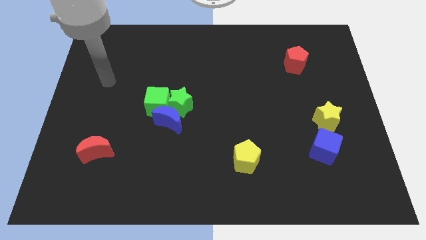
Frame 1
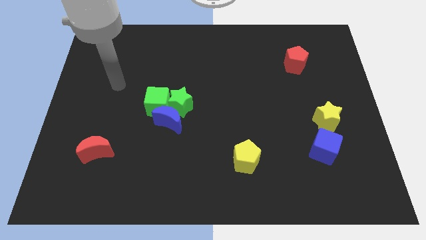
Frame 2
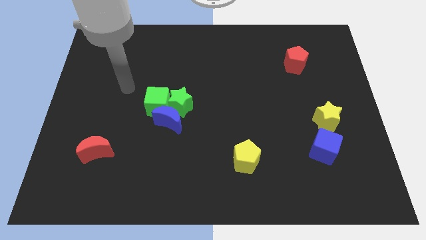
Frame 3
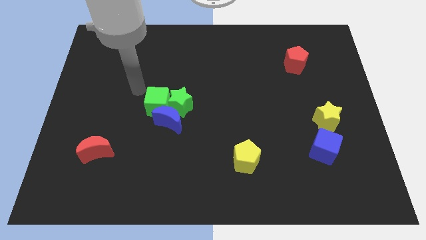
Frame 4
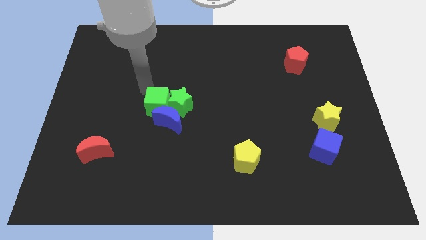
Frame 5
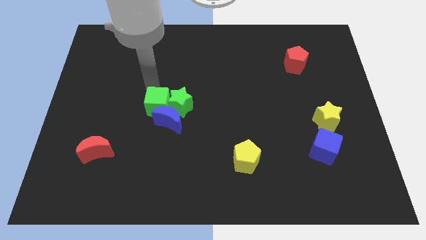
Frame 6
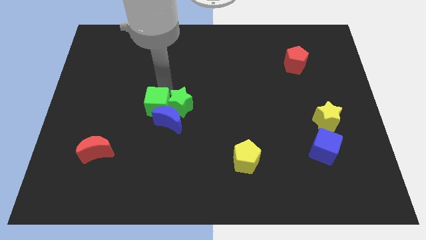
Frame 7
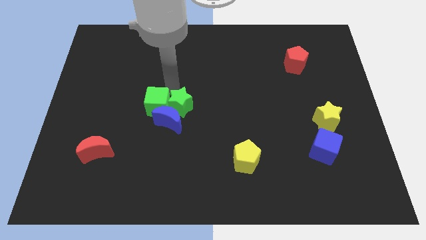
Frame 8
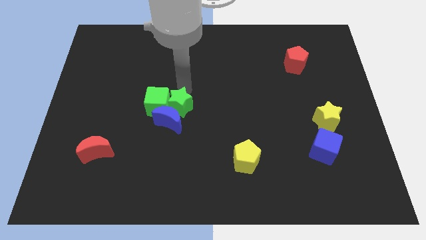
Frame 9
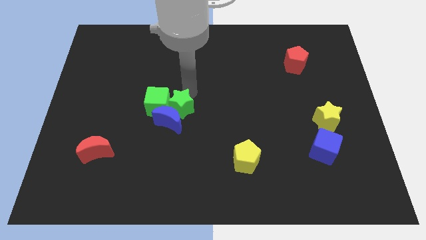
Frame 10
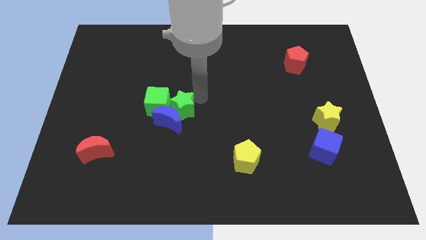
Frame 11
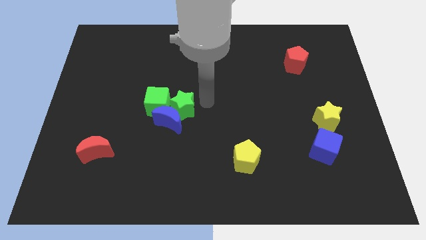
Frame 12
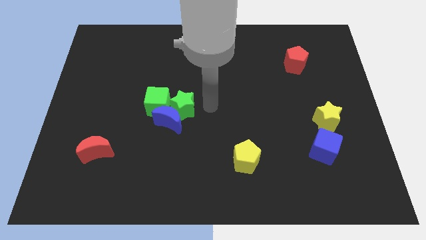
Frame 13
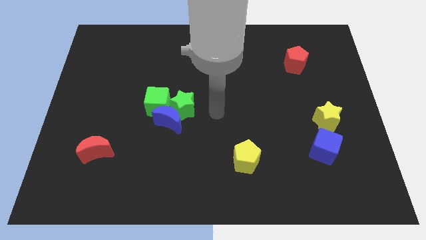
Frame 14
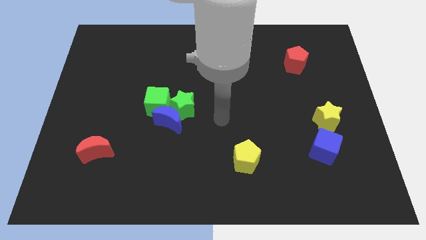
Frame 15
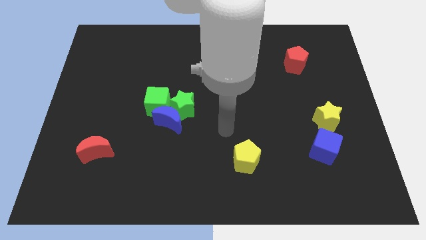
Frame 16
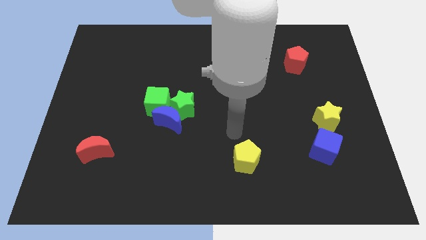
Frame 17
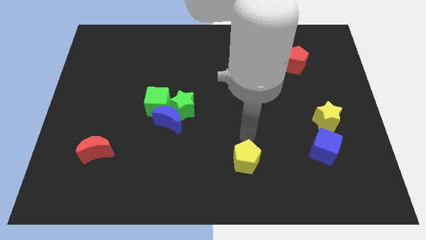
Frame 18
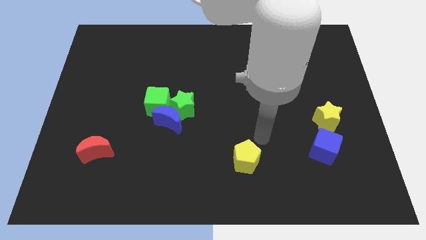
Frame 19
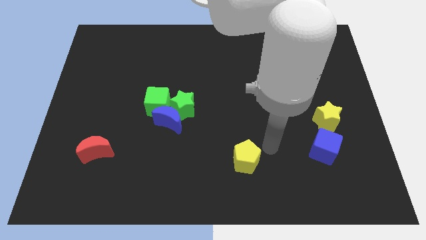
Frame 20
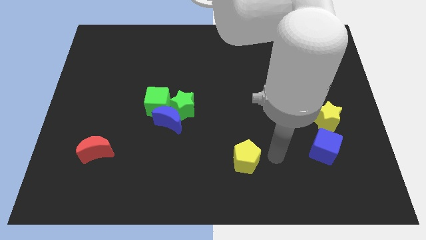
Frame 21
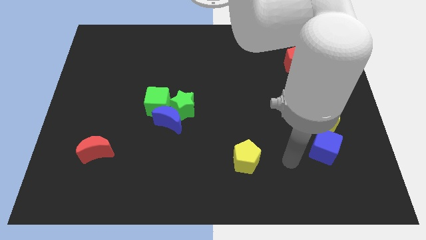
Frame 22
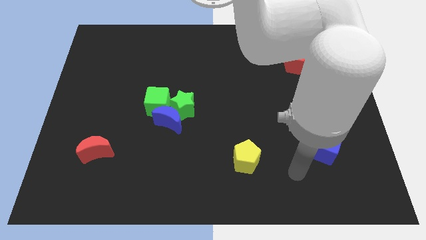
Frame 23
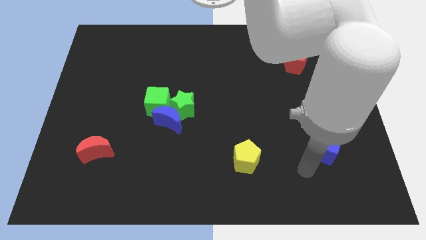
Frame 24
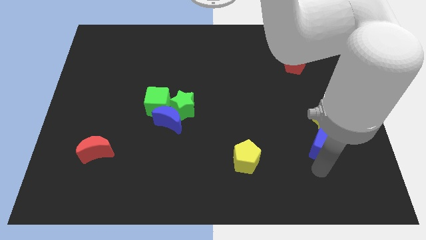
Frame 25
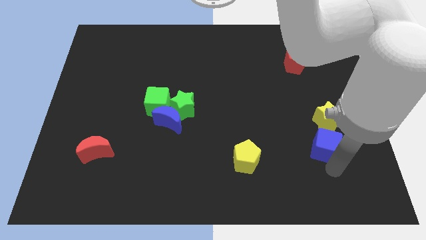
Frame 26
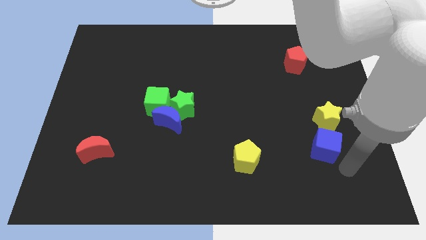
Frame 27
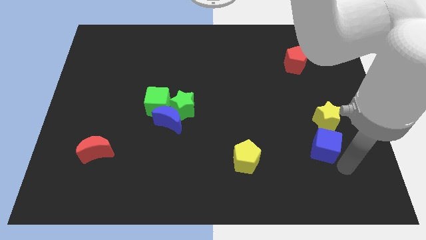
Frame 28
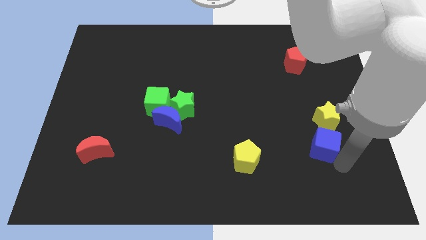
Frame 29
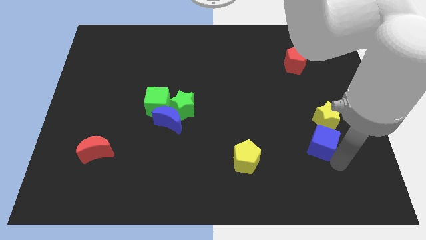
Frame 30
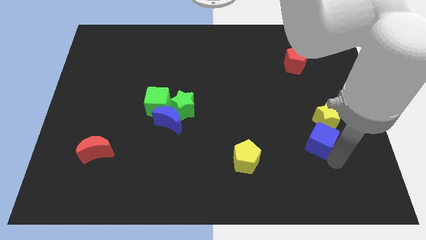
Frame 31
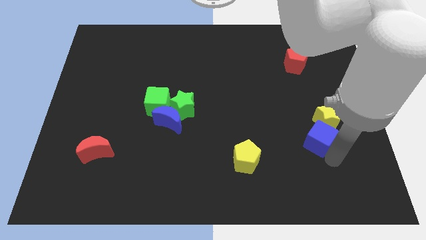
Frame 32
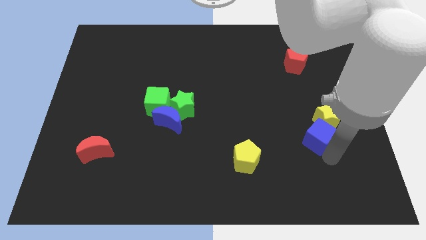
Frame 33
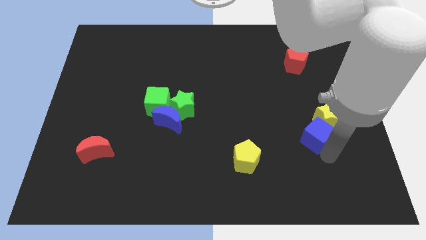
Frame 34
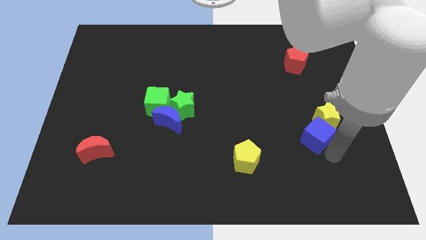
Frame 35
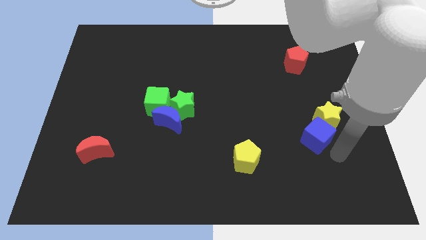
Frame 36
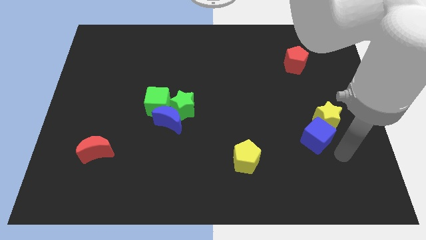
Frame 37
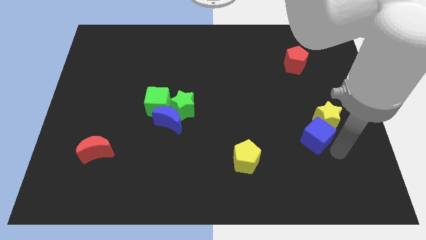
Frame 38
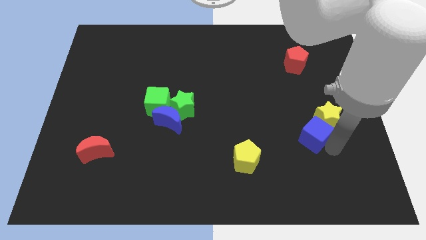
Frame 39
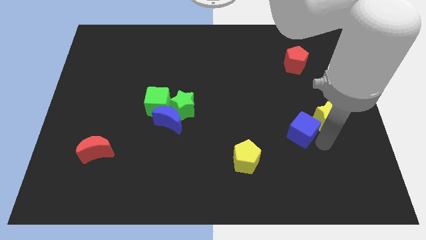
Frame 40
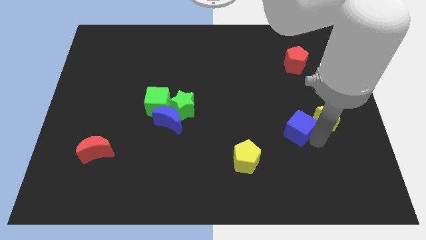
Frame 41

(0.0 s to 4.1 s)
slide the blue cube up and then left a little

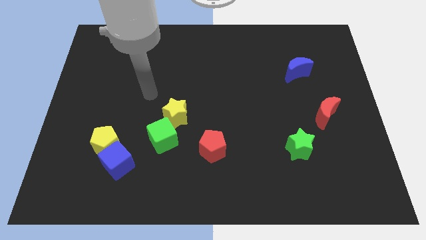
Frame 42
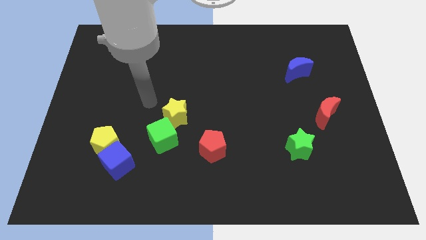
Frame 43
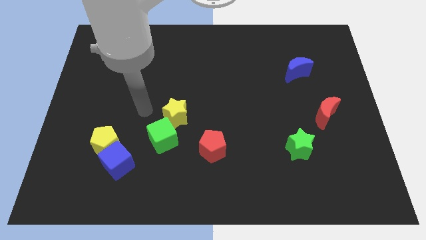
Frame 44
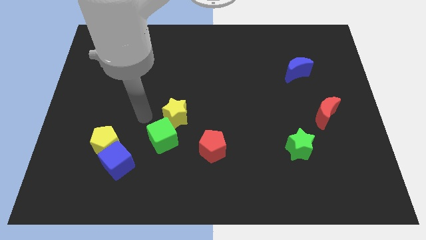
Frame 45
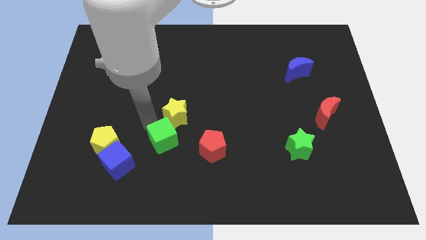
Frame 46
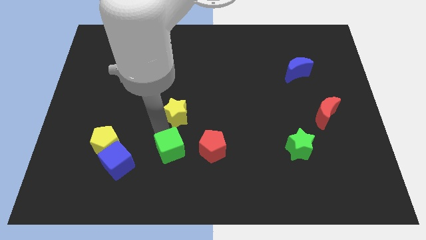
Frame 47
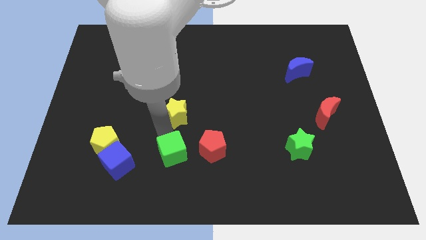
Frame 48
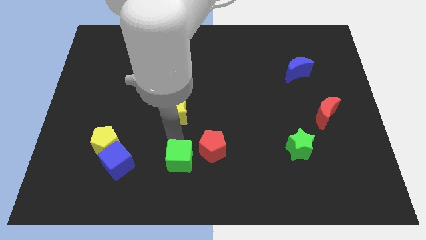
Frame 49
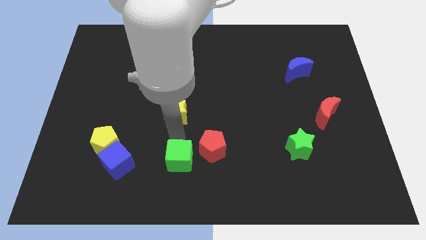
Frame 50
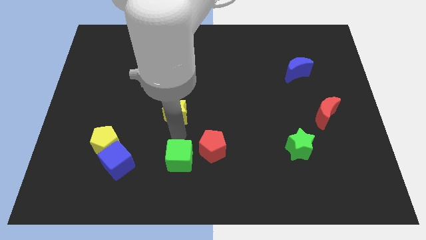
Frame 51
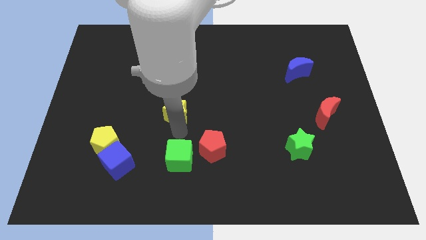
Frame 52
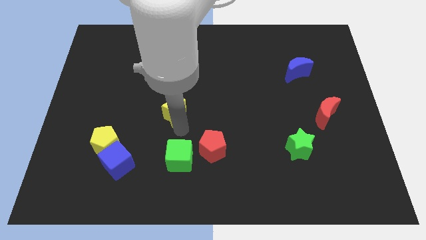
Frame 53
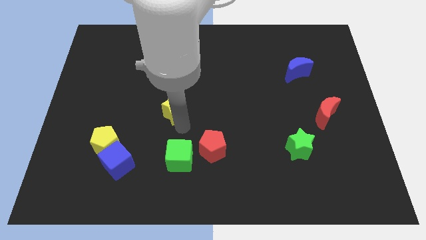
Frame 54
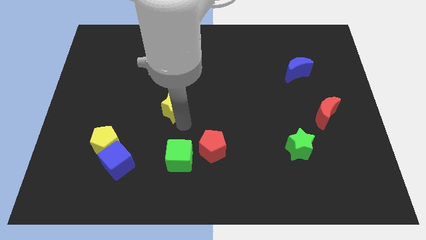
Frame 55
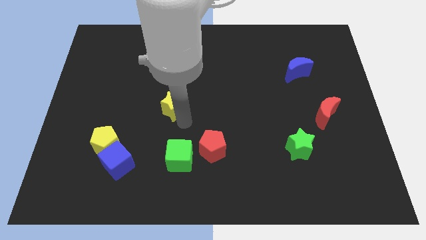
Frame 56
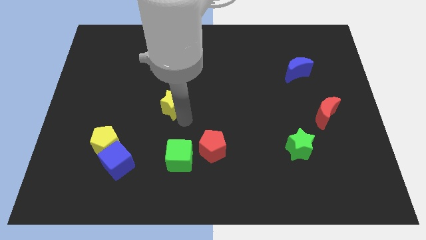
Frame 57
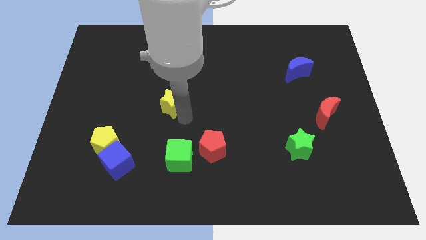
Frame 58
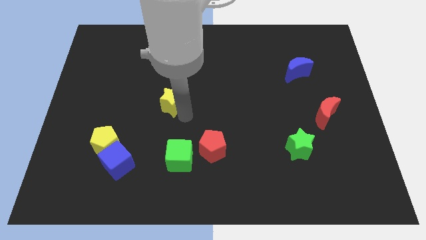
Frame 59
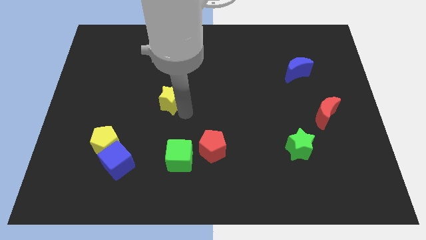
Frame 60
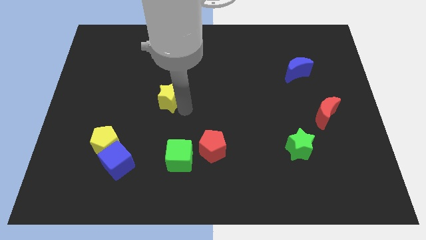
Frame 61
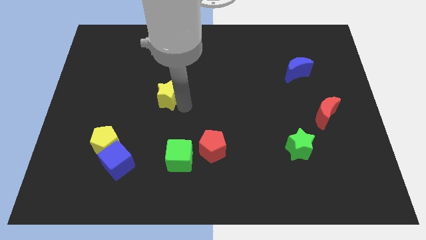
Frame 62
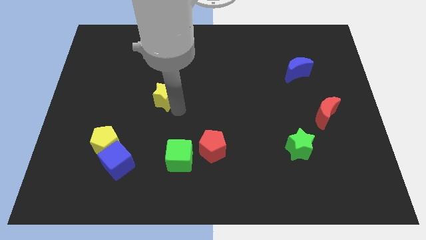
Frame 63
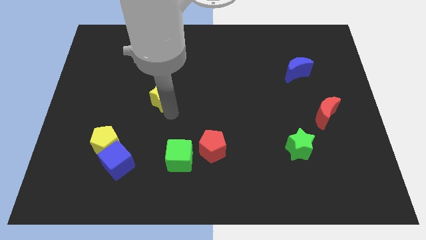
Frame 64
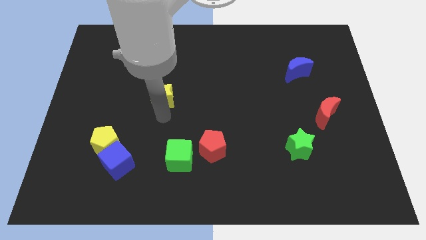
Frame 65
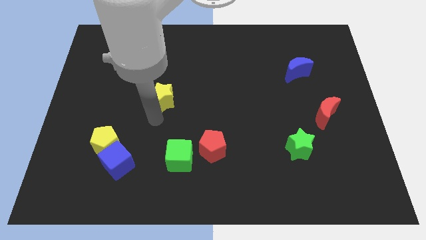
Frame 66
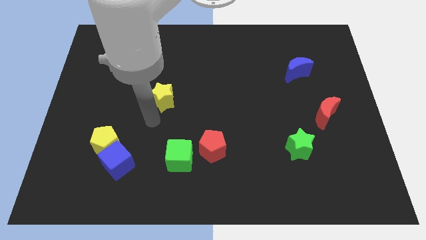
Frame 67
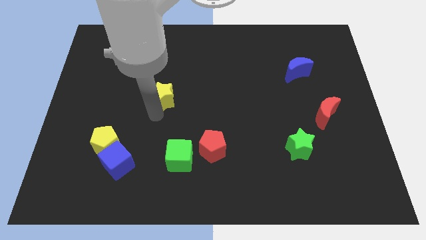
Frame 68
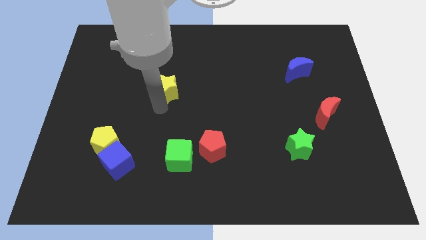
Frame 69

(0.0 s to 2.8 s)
slightly move the yellow star upwards

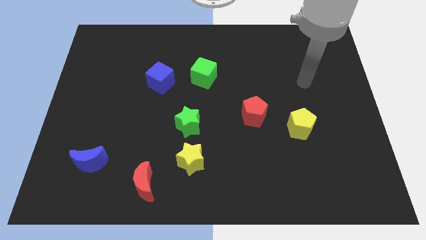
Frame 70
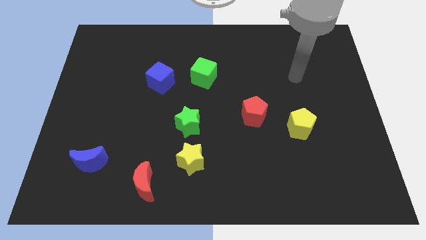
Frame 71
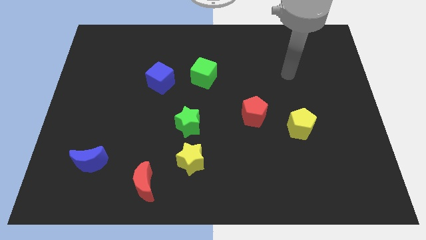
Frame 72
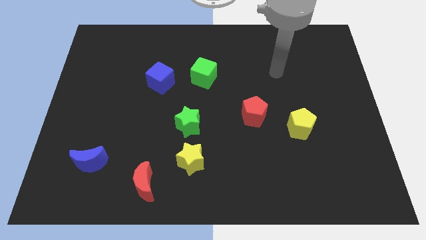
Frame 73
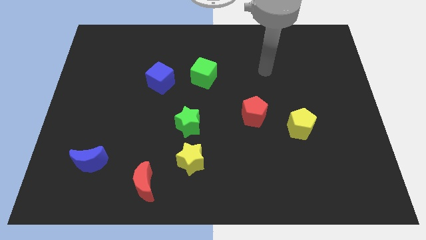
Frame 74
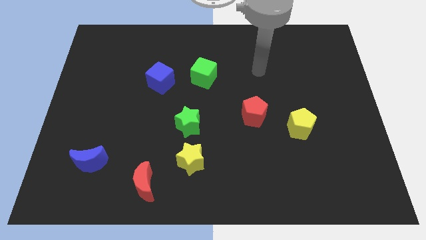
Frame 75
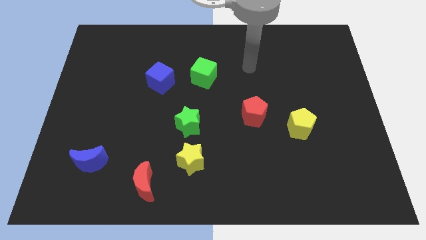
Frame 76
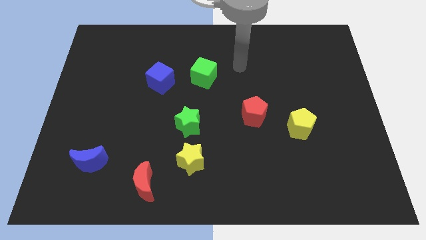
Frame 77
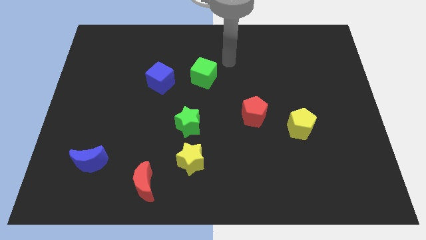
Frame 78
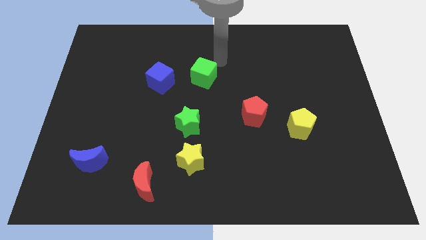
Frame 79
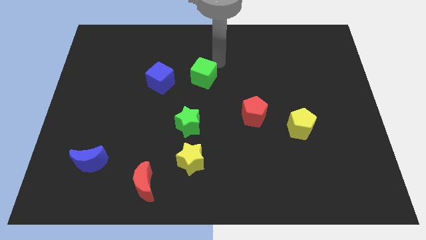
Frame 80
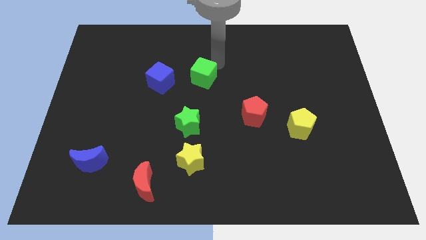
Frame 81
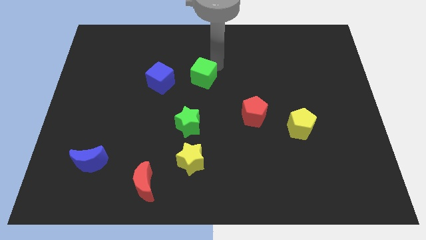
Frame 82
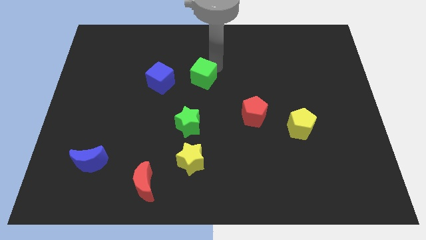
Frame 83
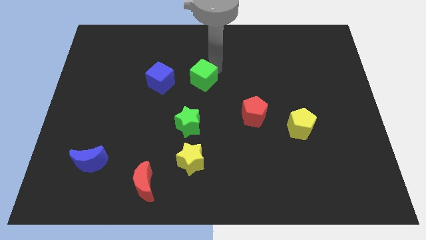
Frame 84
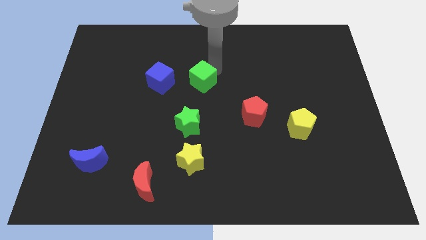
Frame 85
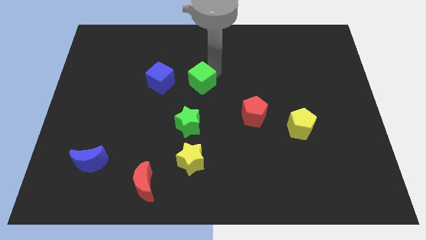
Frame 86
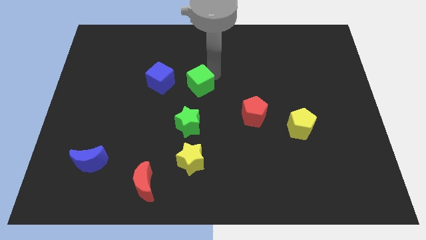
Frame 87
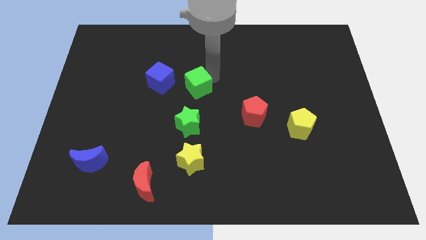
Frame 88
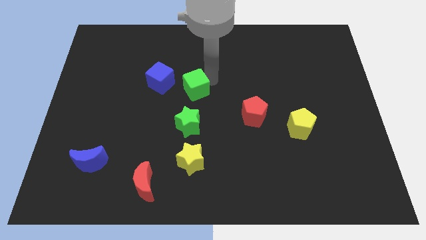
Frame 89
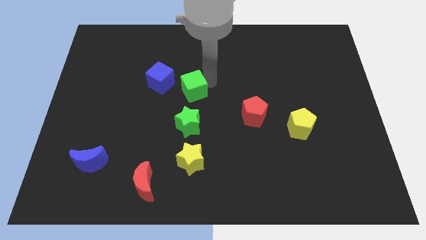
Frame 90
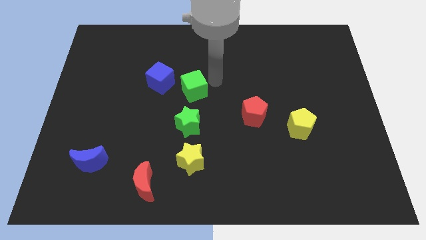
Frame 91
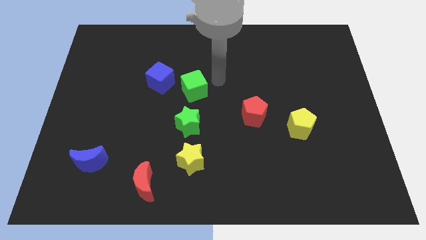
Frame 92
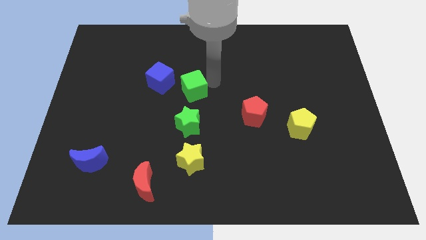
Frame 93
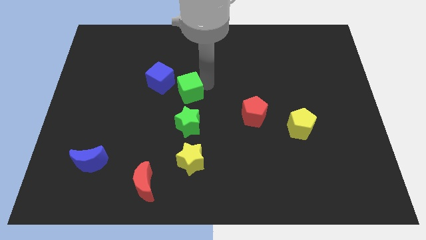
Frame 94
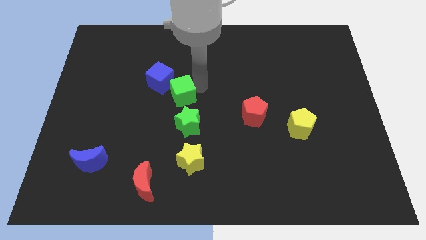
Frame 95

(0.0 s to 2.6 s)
slide the green cube diagonally downwards and left a bit
